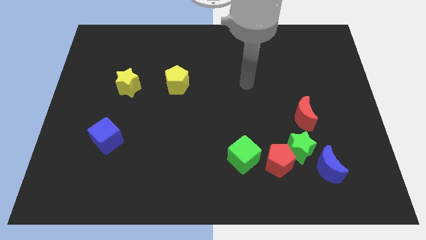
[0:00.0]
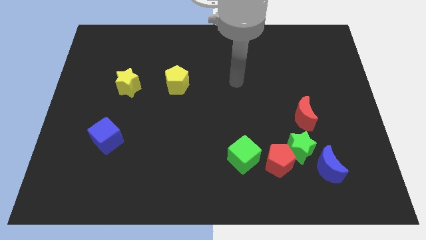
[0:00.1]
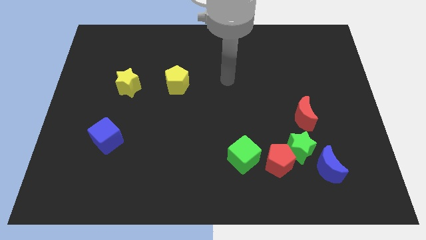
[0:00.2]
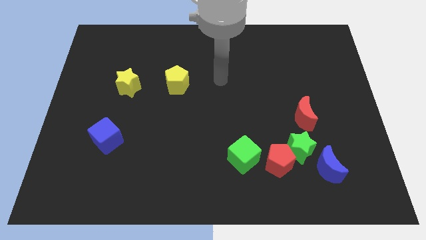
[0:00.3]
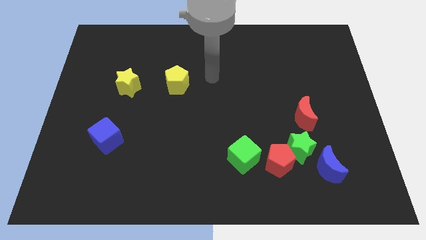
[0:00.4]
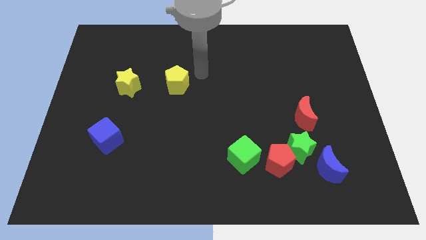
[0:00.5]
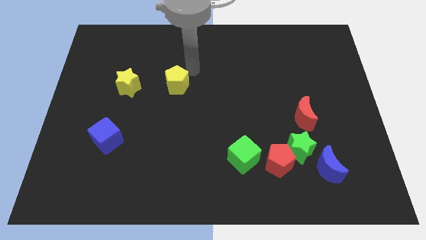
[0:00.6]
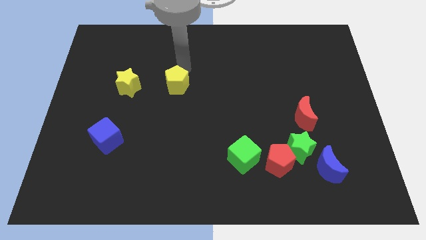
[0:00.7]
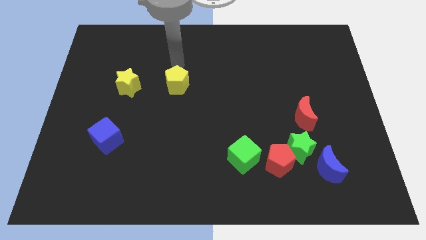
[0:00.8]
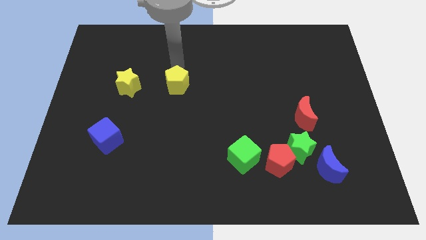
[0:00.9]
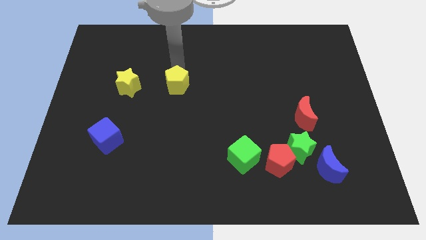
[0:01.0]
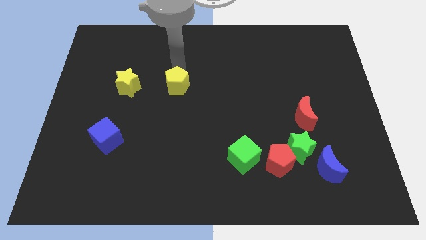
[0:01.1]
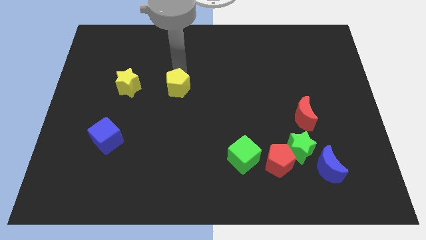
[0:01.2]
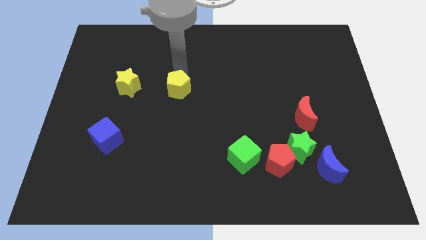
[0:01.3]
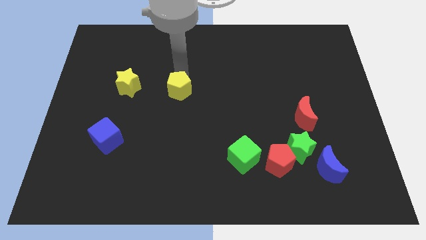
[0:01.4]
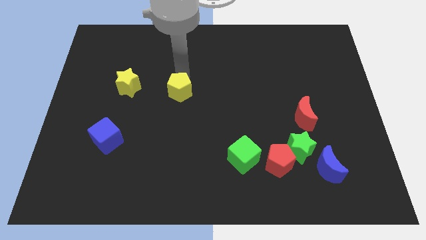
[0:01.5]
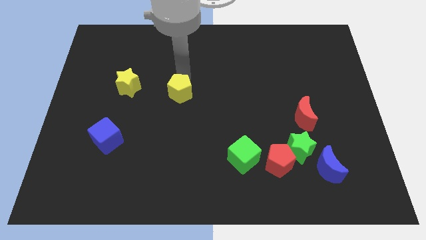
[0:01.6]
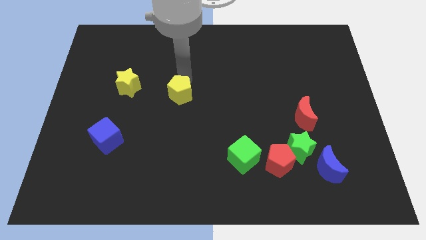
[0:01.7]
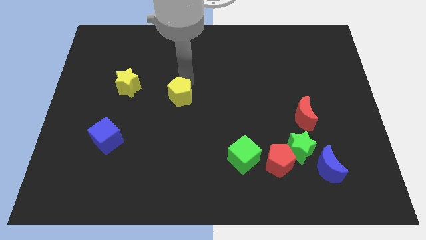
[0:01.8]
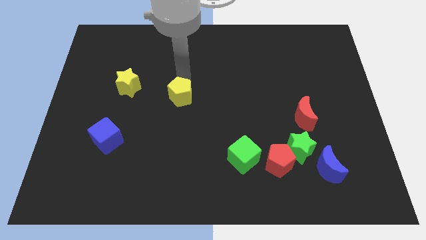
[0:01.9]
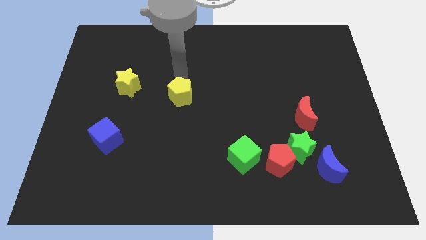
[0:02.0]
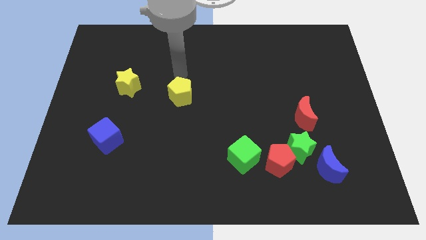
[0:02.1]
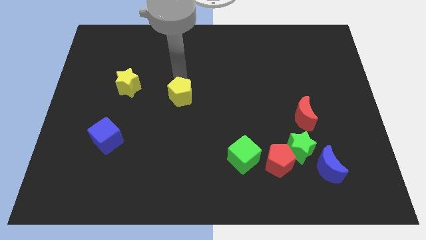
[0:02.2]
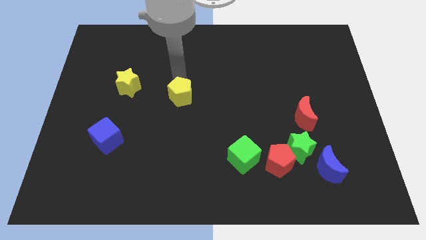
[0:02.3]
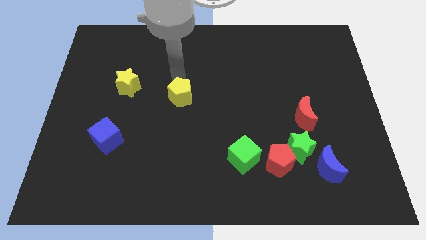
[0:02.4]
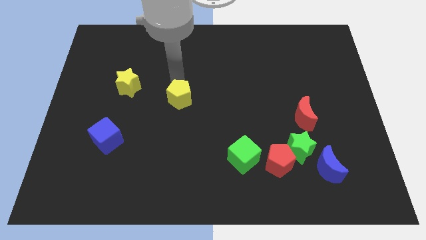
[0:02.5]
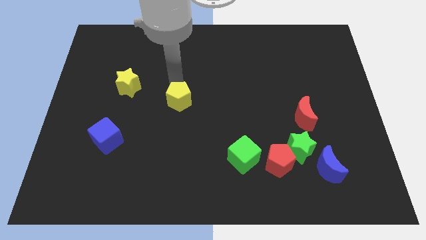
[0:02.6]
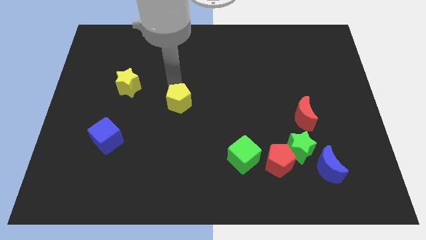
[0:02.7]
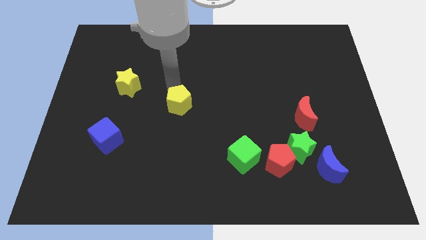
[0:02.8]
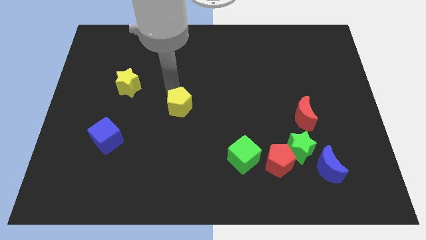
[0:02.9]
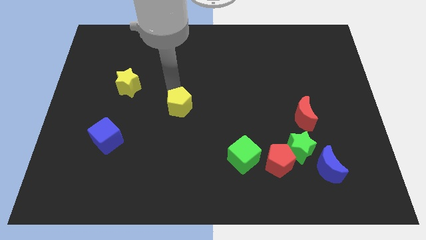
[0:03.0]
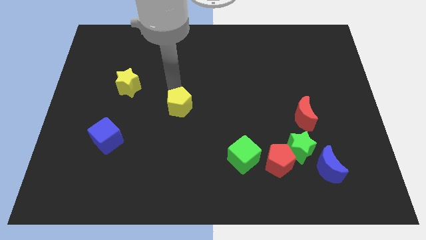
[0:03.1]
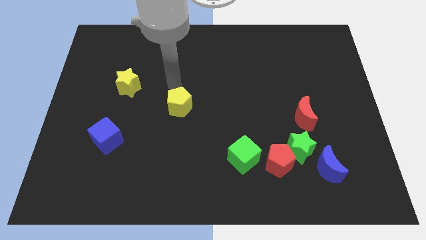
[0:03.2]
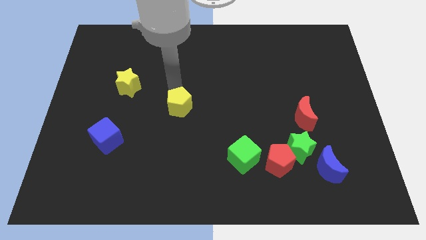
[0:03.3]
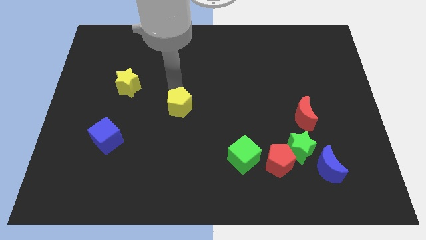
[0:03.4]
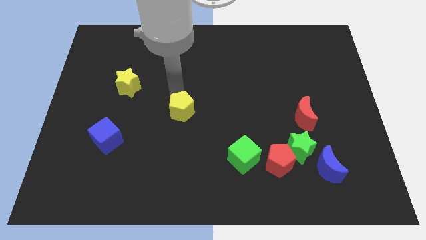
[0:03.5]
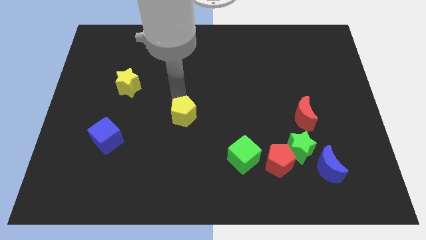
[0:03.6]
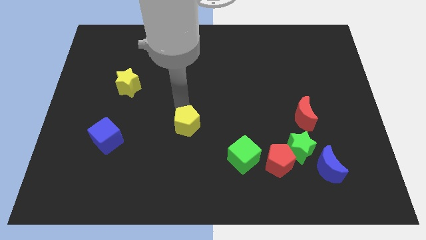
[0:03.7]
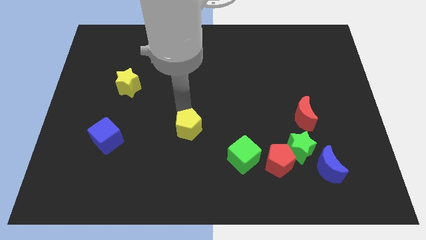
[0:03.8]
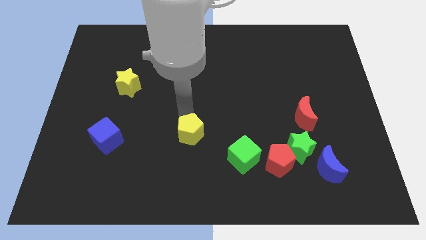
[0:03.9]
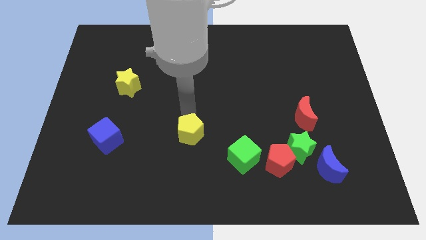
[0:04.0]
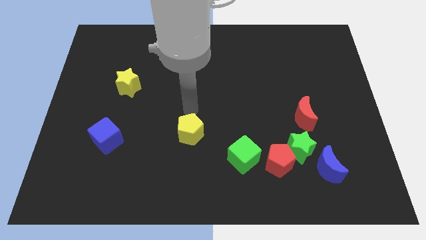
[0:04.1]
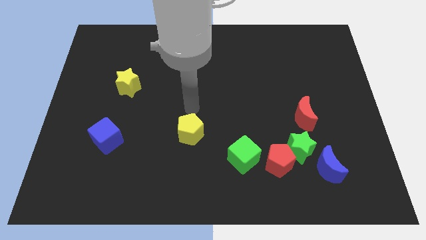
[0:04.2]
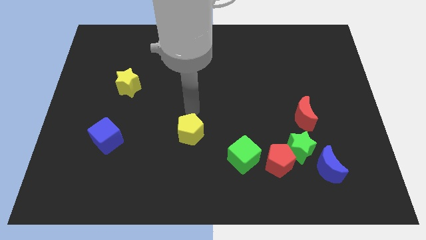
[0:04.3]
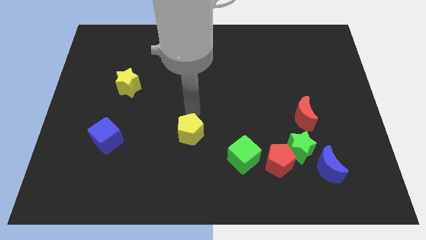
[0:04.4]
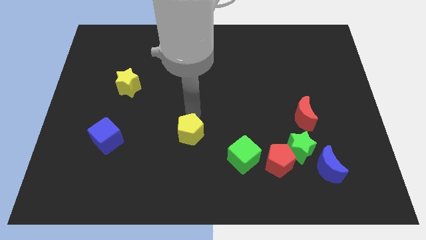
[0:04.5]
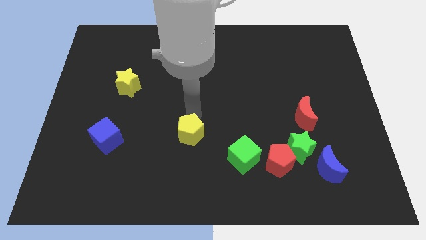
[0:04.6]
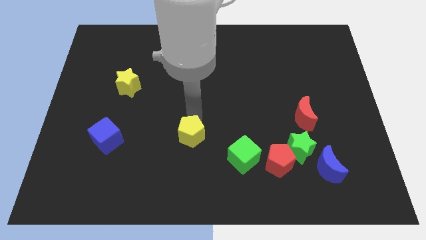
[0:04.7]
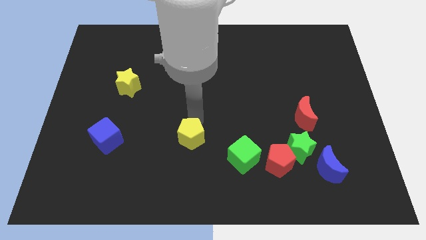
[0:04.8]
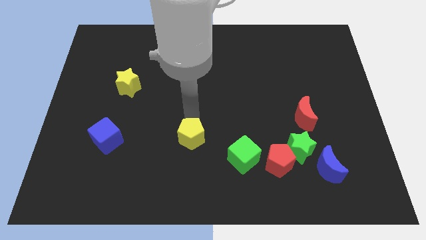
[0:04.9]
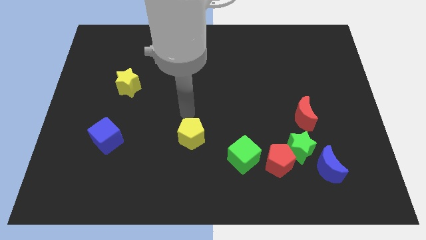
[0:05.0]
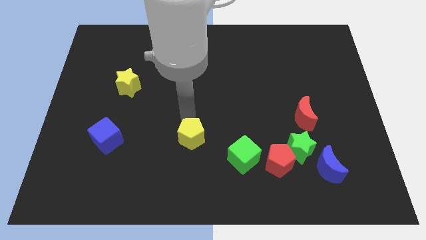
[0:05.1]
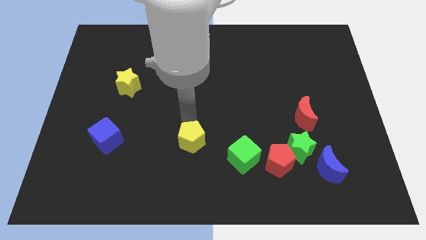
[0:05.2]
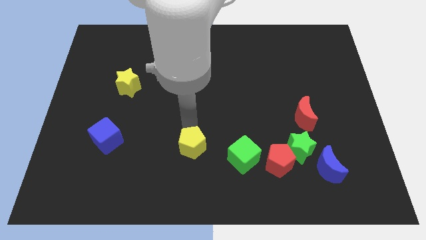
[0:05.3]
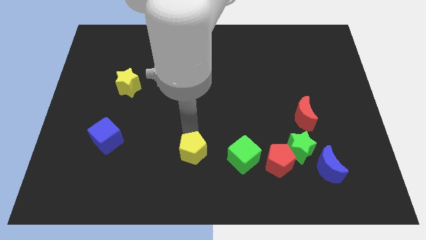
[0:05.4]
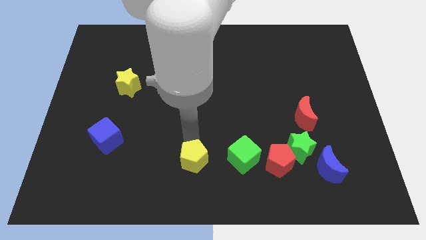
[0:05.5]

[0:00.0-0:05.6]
push the yellow pentagon to the bottom side
